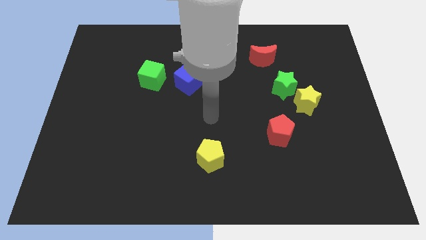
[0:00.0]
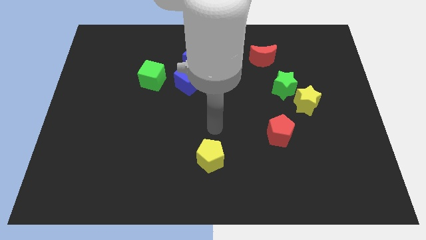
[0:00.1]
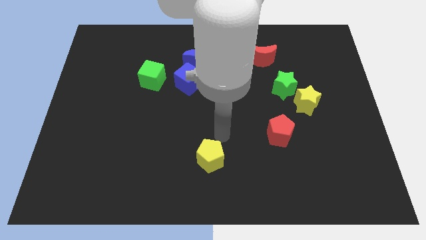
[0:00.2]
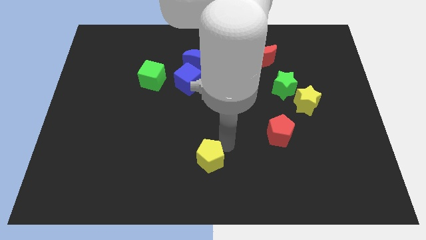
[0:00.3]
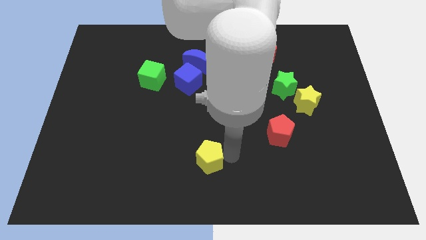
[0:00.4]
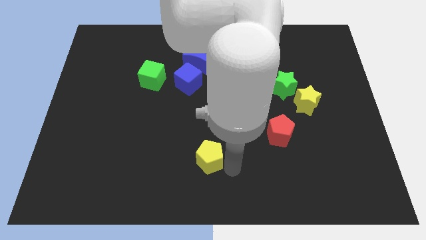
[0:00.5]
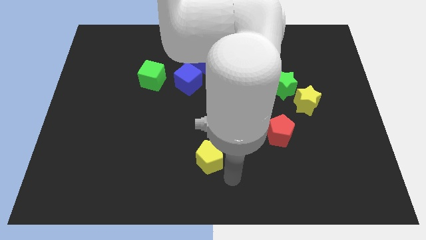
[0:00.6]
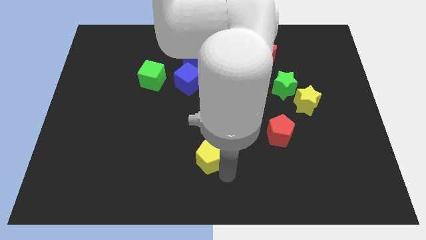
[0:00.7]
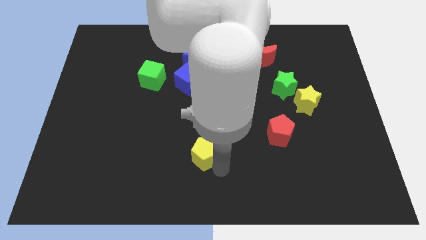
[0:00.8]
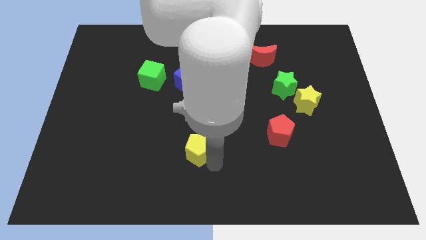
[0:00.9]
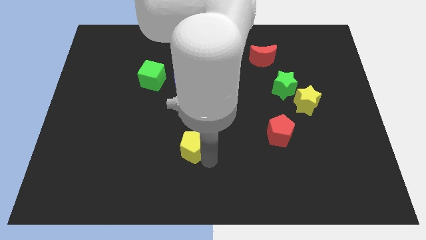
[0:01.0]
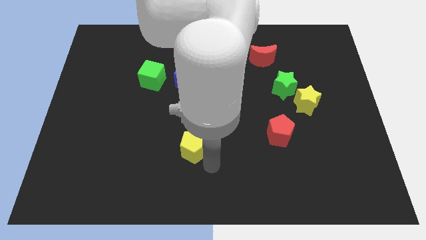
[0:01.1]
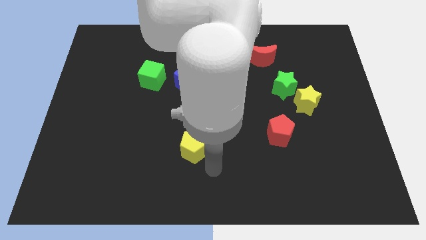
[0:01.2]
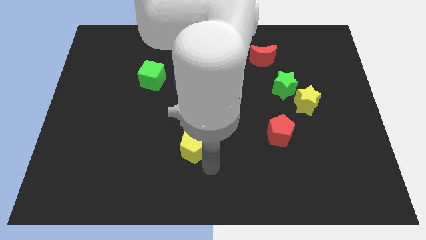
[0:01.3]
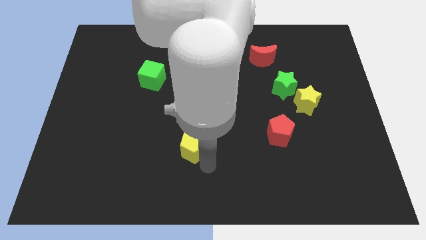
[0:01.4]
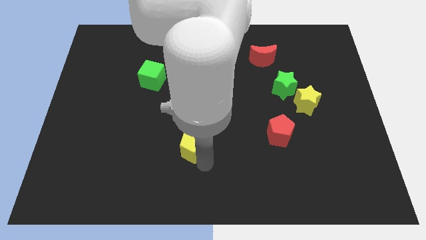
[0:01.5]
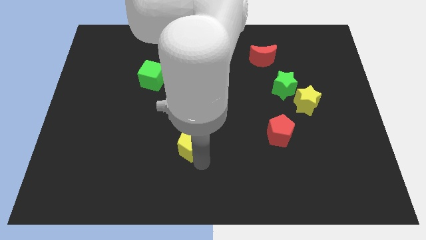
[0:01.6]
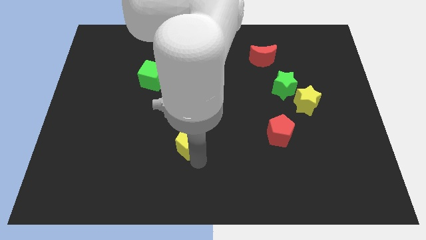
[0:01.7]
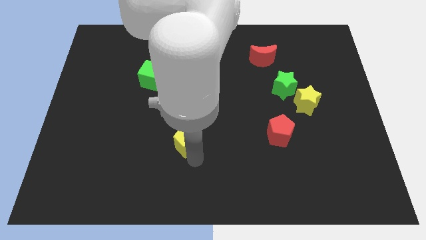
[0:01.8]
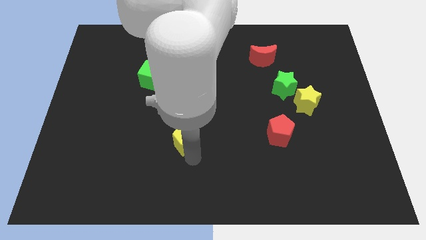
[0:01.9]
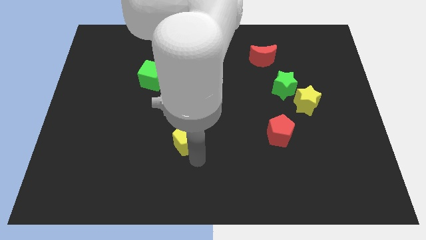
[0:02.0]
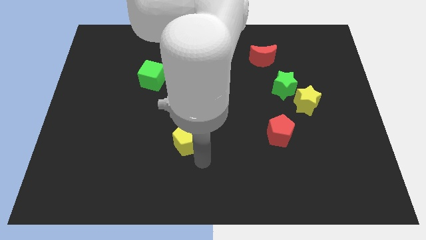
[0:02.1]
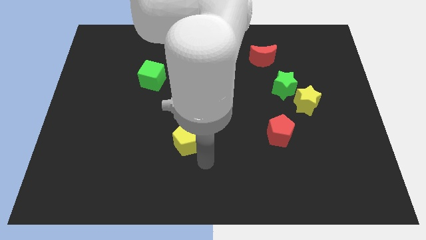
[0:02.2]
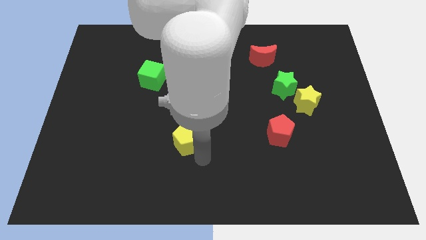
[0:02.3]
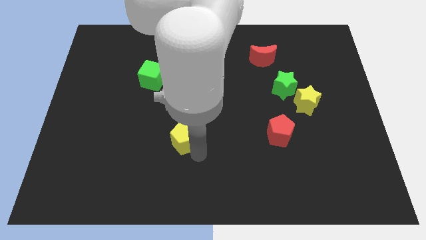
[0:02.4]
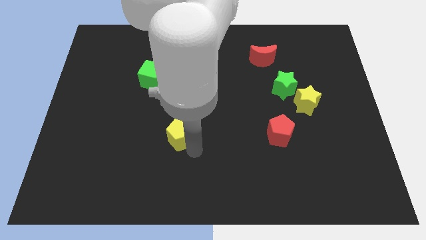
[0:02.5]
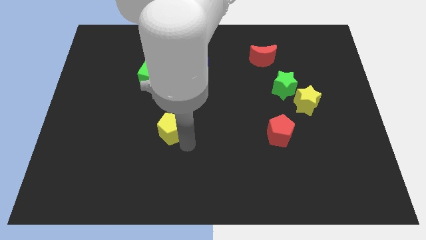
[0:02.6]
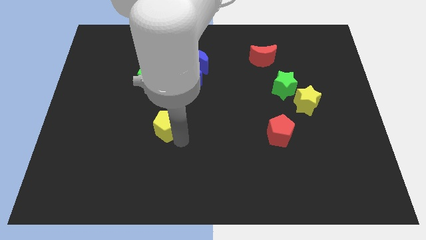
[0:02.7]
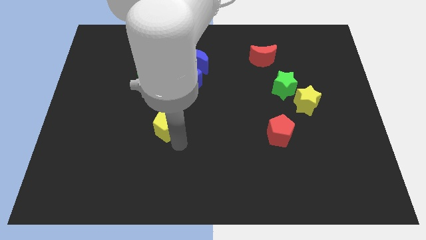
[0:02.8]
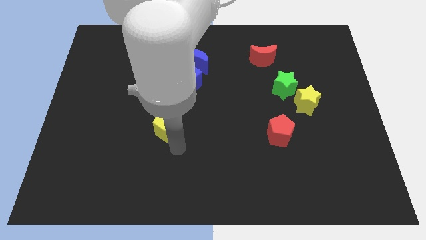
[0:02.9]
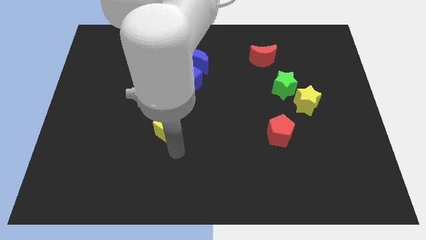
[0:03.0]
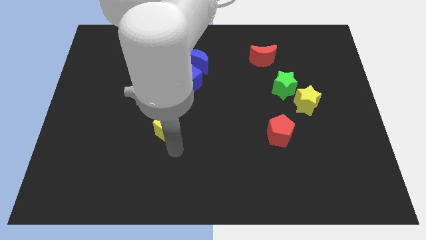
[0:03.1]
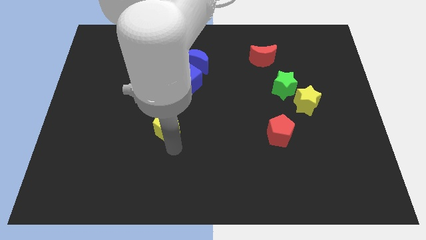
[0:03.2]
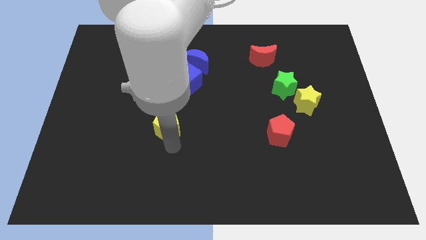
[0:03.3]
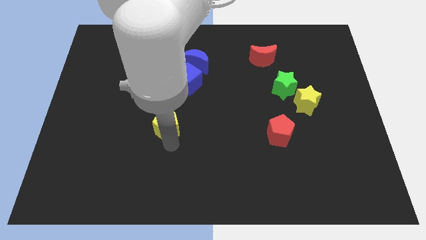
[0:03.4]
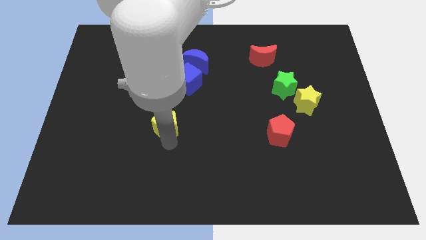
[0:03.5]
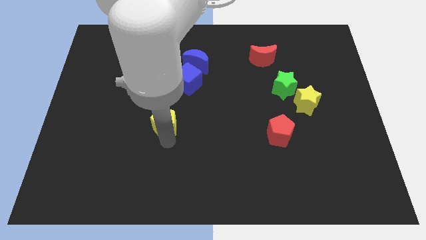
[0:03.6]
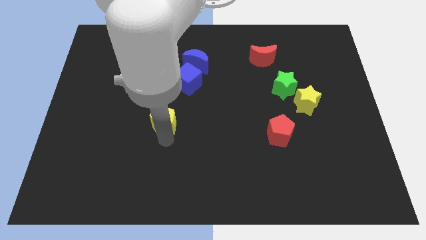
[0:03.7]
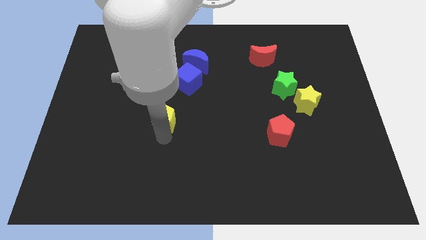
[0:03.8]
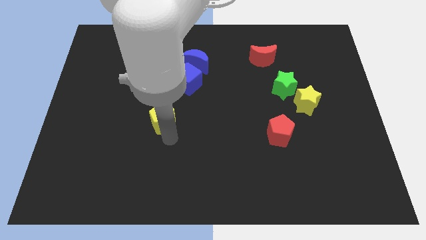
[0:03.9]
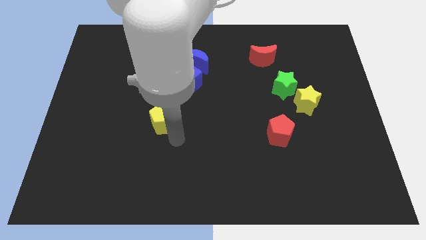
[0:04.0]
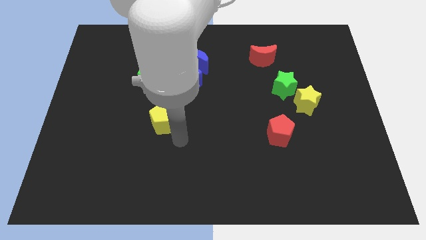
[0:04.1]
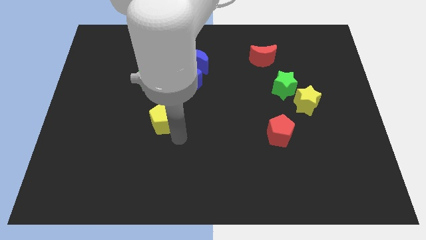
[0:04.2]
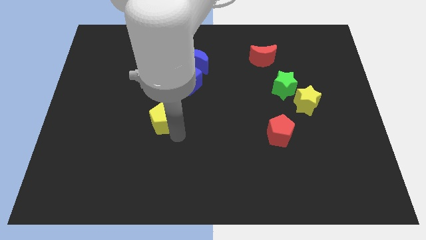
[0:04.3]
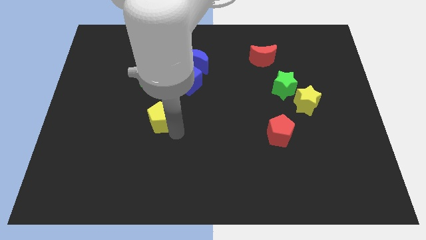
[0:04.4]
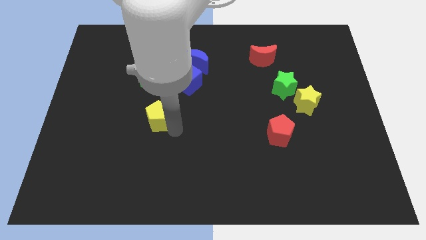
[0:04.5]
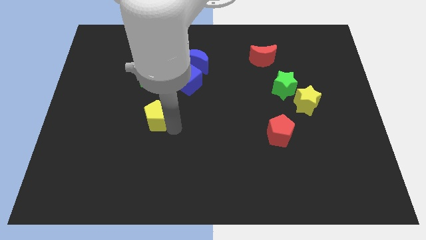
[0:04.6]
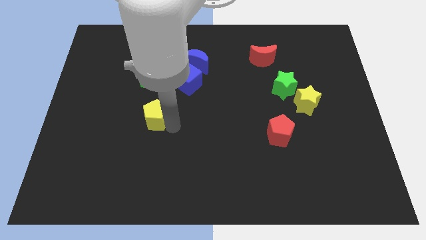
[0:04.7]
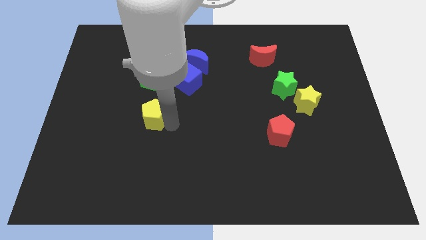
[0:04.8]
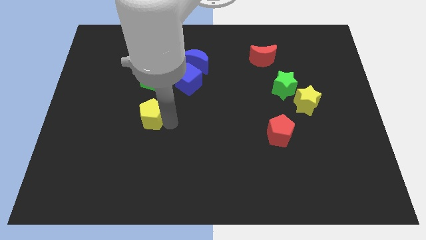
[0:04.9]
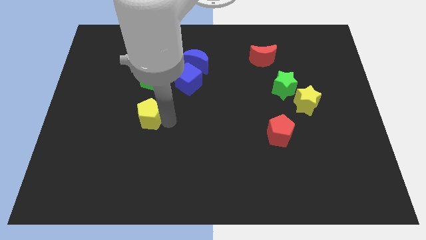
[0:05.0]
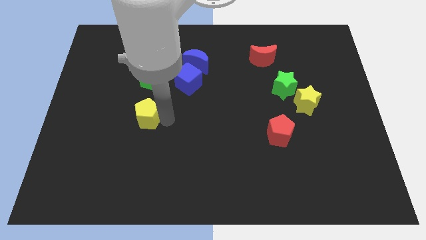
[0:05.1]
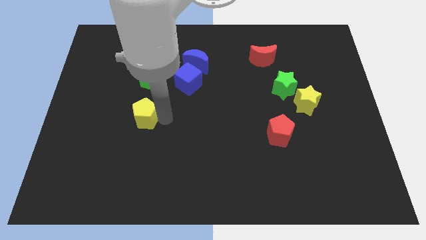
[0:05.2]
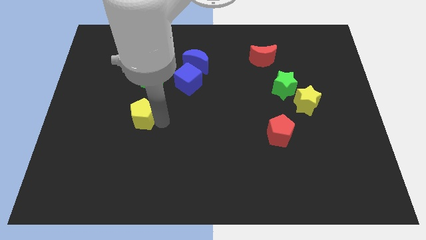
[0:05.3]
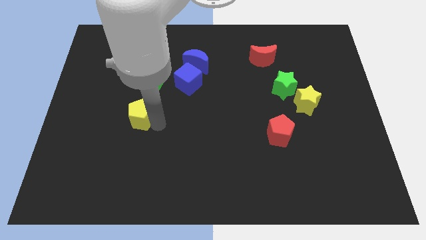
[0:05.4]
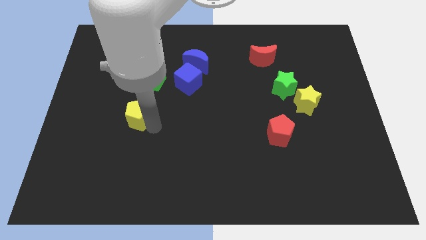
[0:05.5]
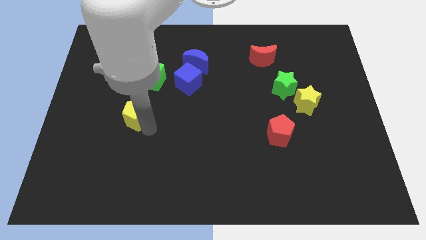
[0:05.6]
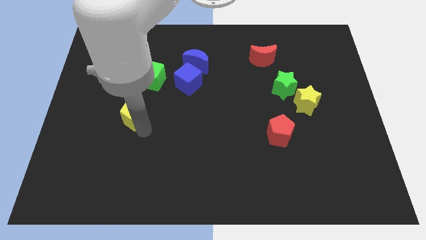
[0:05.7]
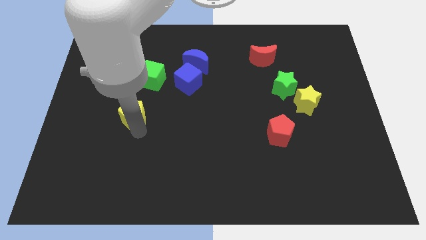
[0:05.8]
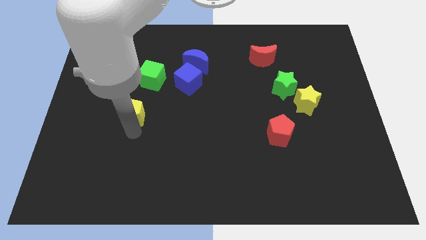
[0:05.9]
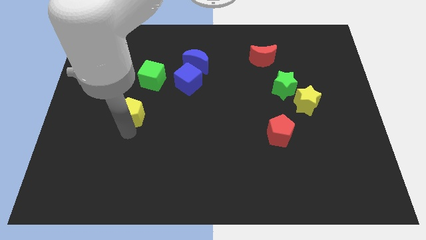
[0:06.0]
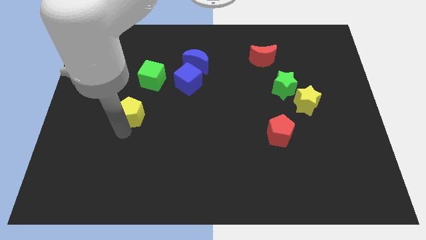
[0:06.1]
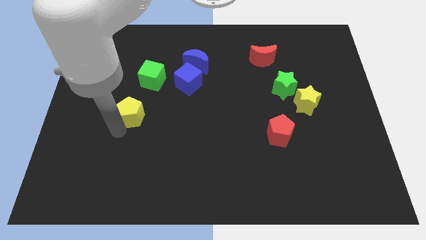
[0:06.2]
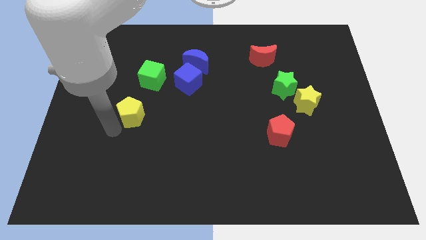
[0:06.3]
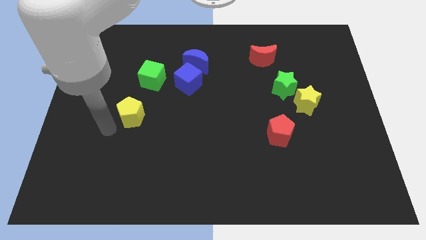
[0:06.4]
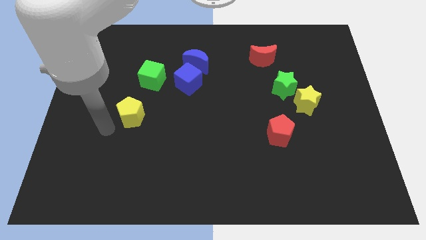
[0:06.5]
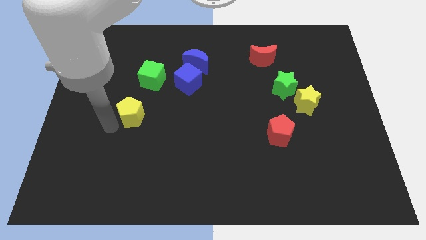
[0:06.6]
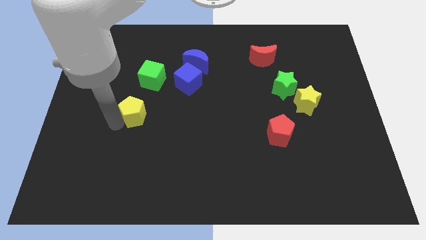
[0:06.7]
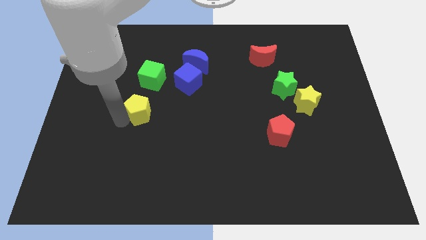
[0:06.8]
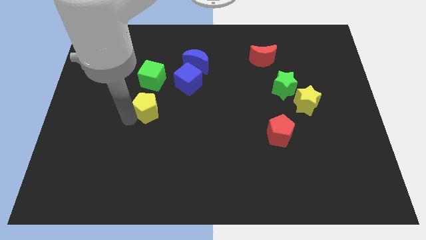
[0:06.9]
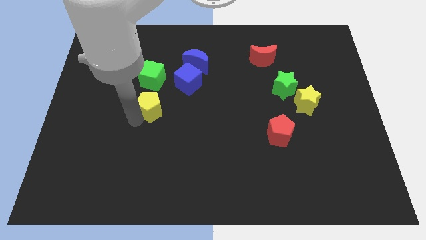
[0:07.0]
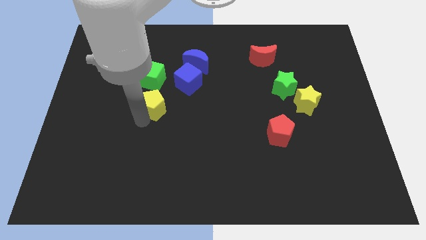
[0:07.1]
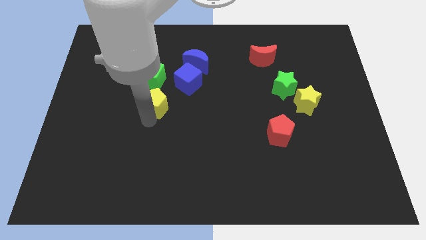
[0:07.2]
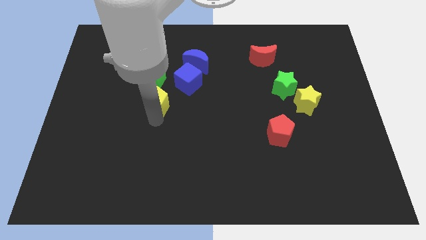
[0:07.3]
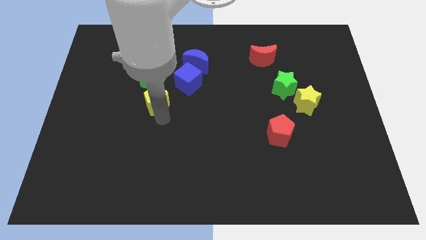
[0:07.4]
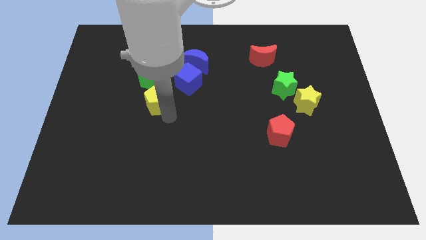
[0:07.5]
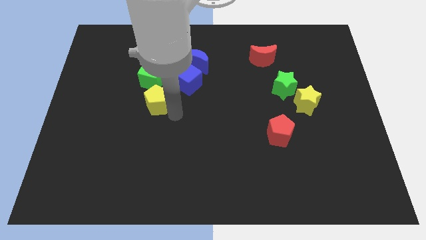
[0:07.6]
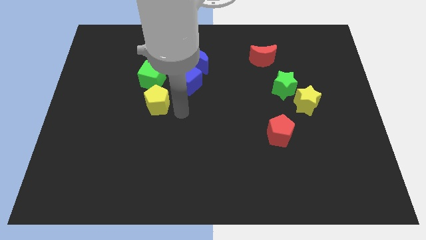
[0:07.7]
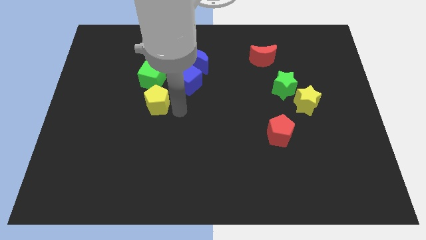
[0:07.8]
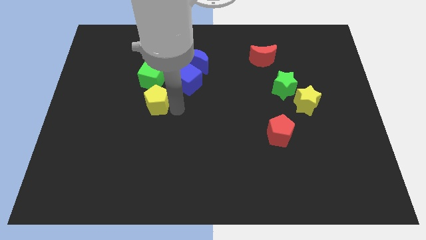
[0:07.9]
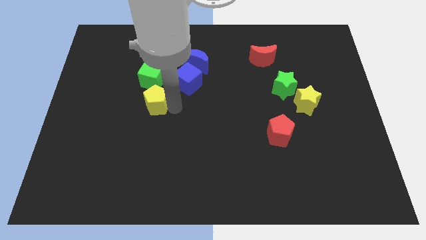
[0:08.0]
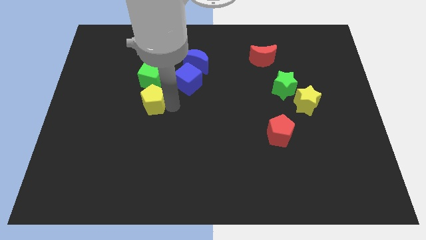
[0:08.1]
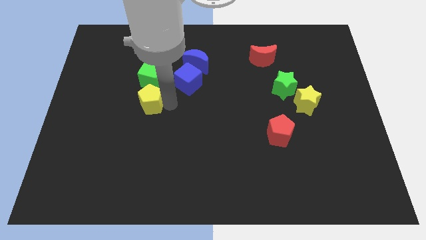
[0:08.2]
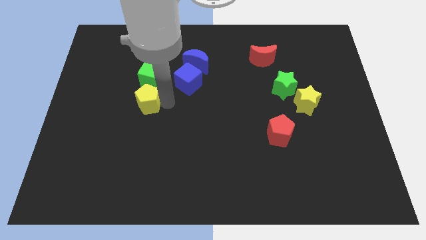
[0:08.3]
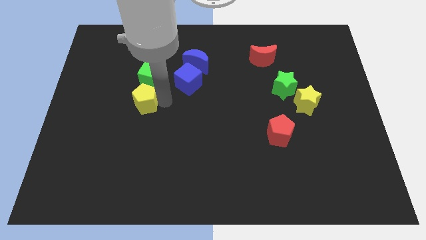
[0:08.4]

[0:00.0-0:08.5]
put the yellow pentagon to the bottom left of the green cube
